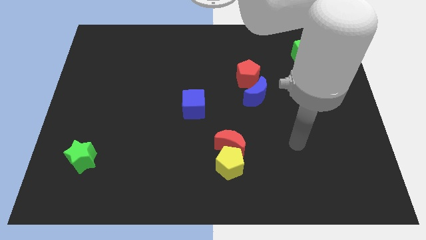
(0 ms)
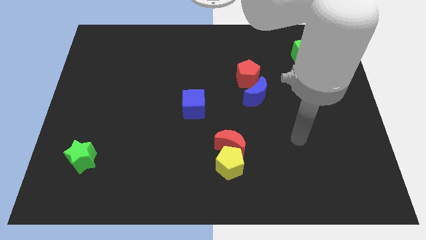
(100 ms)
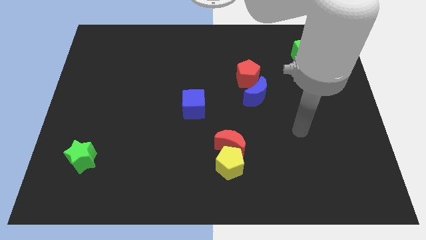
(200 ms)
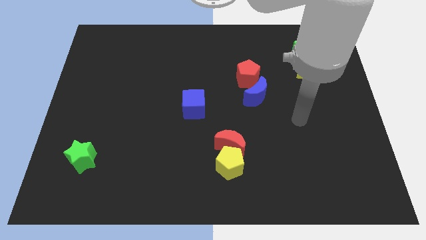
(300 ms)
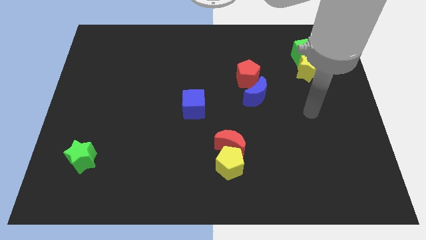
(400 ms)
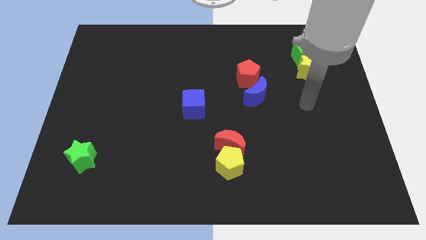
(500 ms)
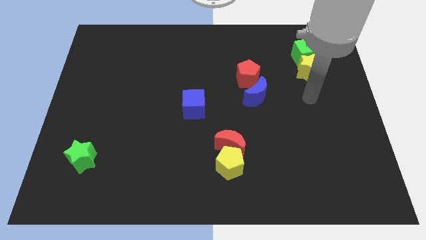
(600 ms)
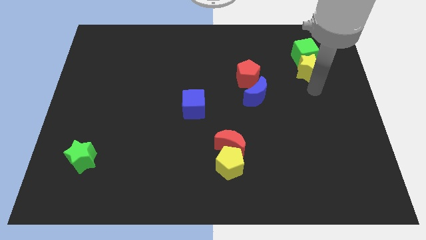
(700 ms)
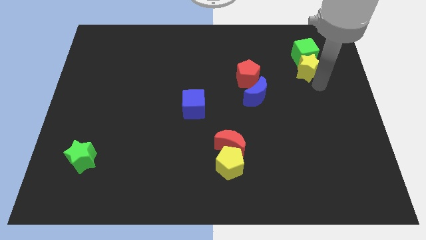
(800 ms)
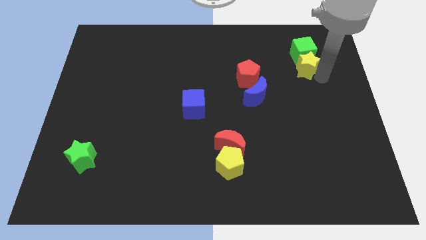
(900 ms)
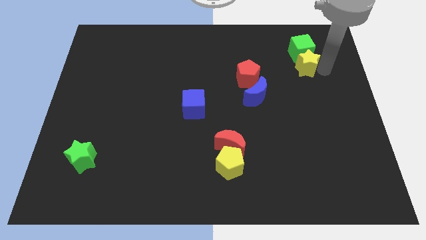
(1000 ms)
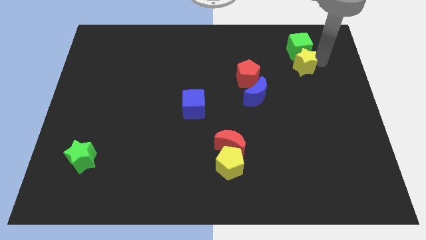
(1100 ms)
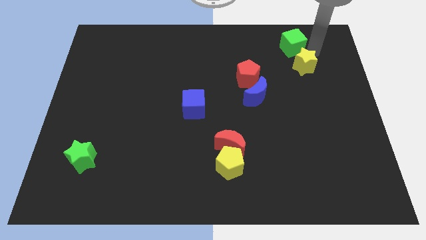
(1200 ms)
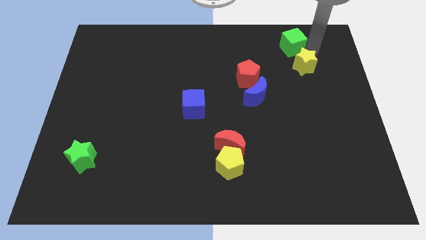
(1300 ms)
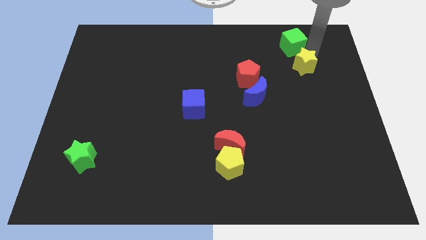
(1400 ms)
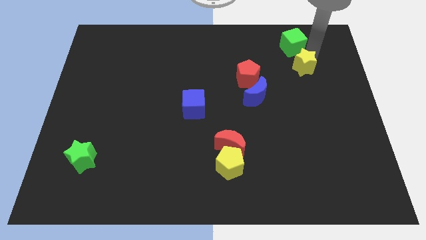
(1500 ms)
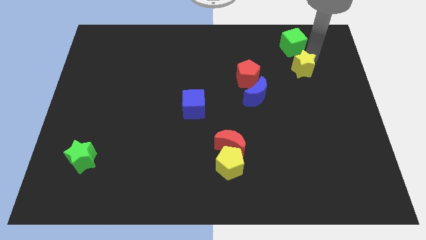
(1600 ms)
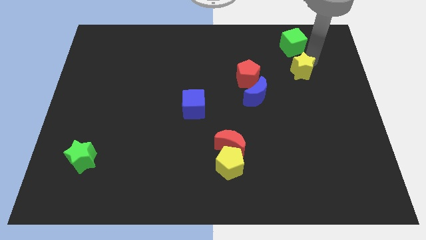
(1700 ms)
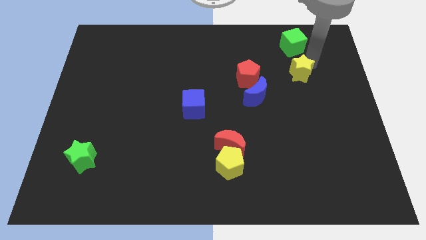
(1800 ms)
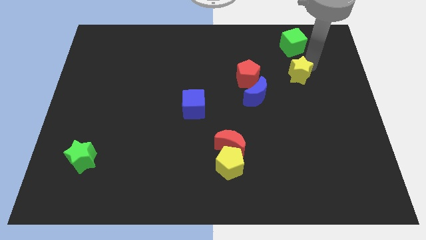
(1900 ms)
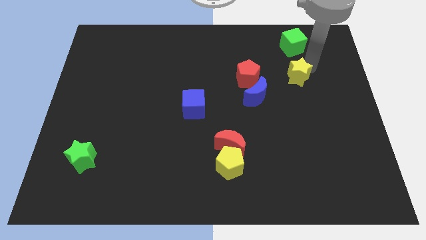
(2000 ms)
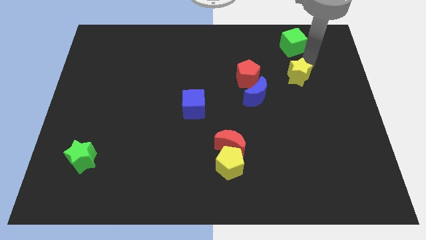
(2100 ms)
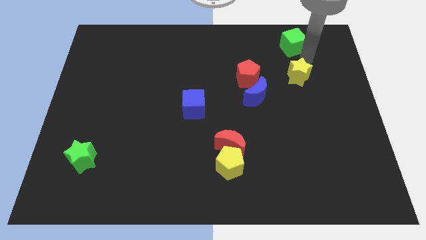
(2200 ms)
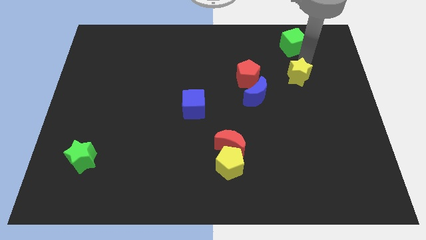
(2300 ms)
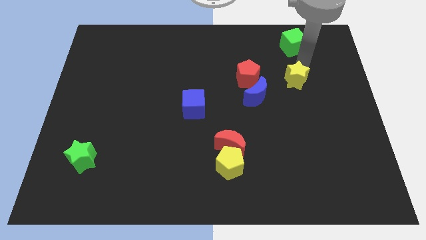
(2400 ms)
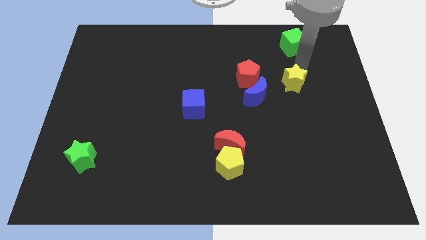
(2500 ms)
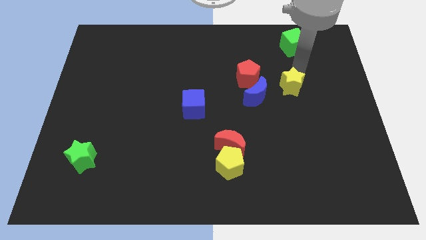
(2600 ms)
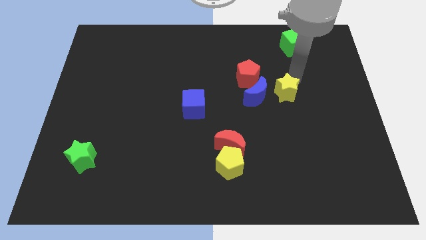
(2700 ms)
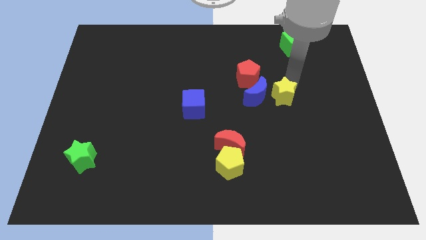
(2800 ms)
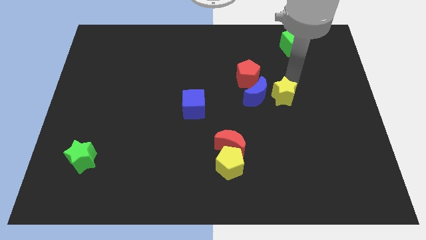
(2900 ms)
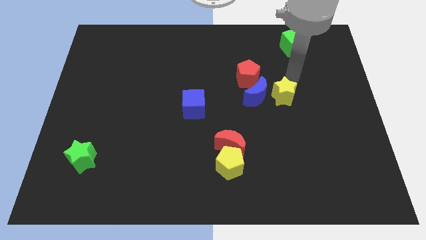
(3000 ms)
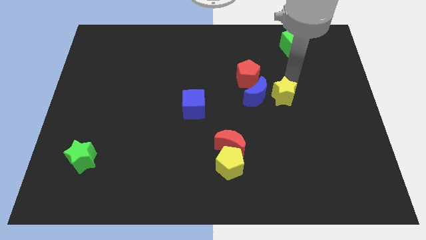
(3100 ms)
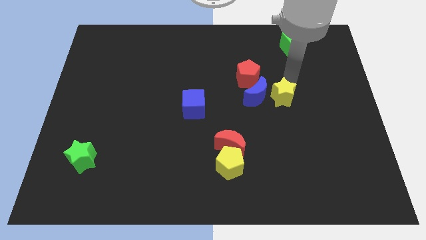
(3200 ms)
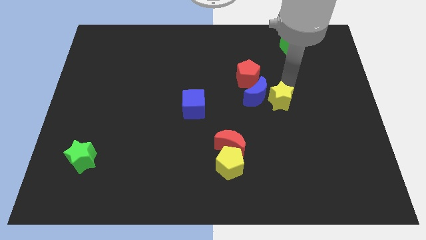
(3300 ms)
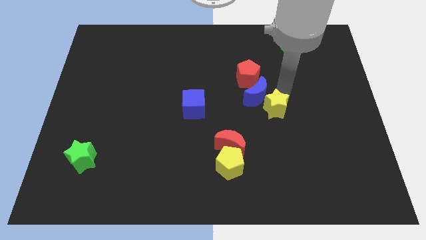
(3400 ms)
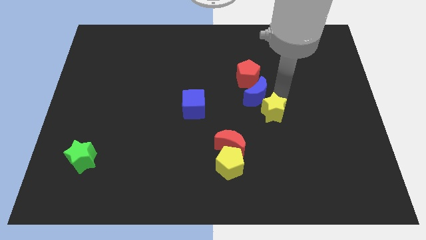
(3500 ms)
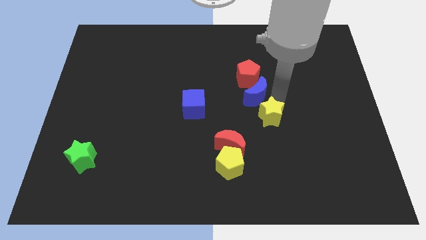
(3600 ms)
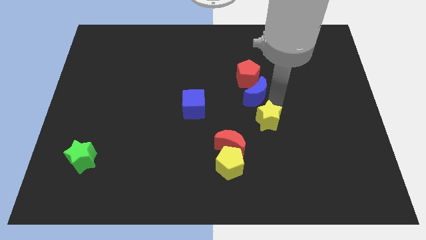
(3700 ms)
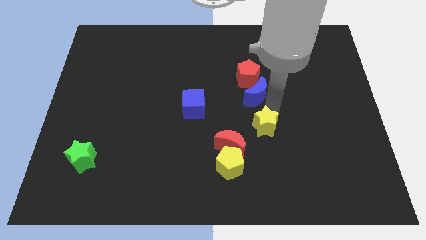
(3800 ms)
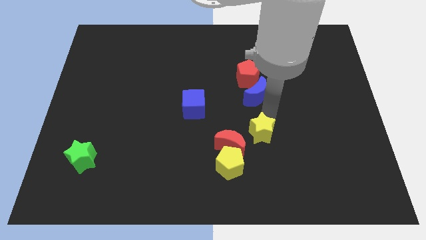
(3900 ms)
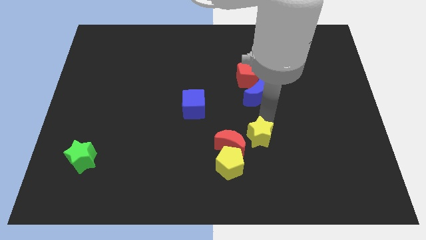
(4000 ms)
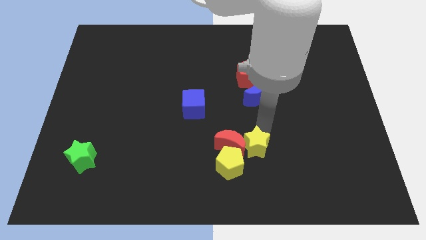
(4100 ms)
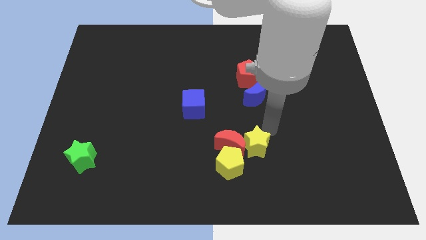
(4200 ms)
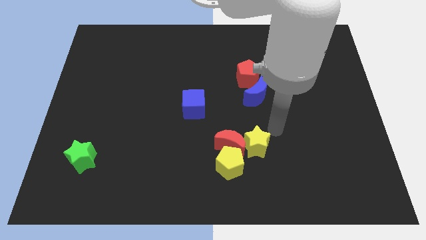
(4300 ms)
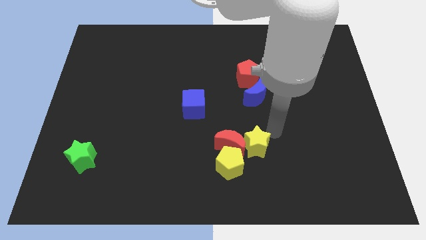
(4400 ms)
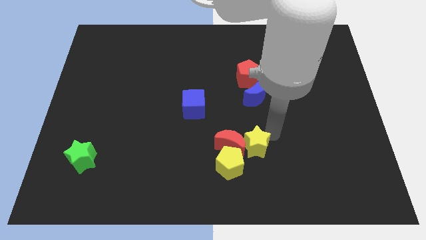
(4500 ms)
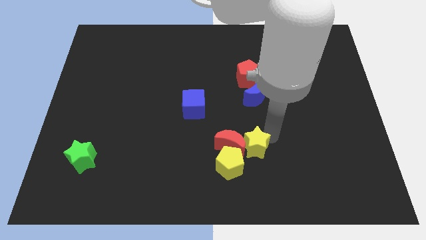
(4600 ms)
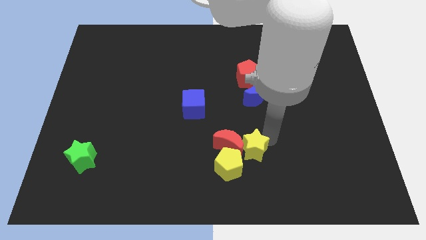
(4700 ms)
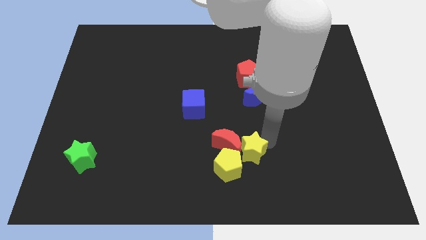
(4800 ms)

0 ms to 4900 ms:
move the yellow star close to the yellow pentagon

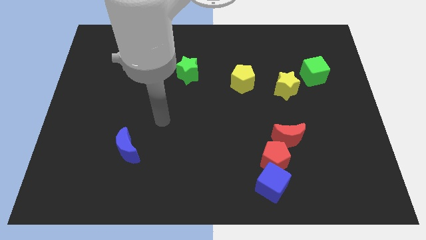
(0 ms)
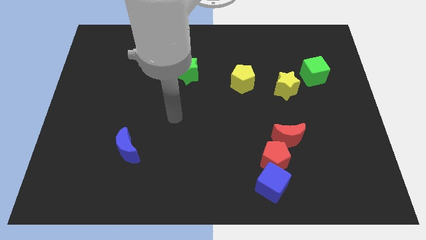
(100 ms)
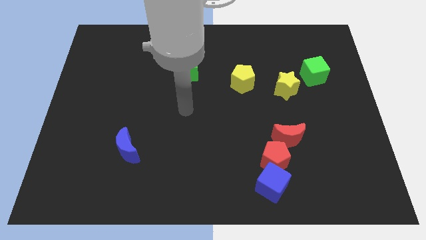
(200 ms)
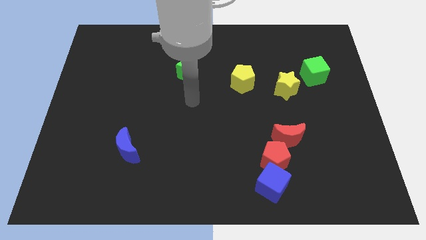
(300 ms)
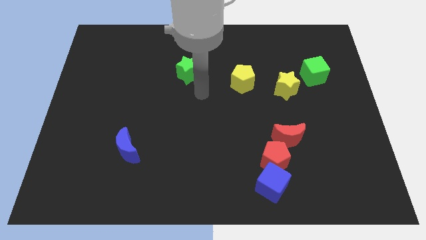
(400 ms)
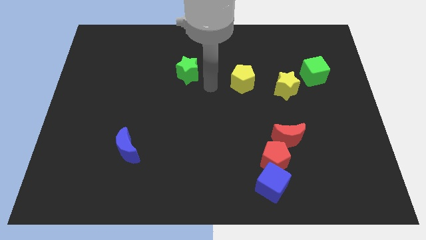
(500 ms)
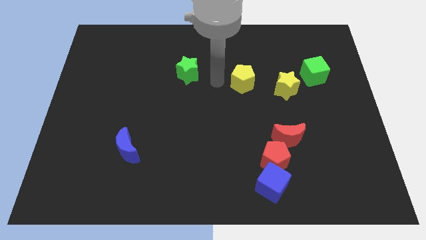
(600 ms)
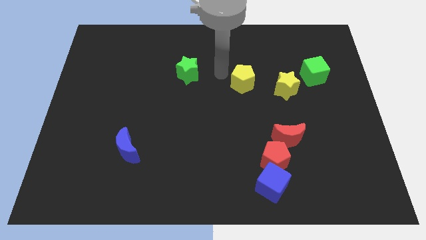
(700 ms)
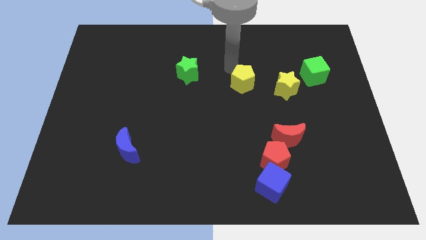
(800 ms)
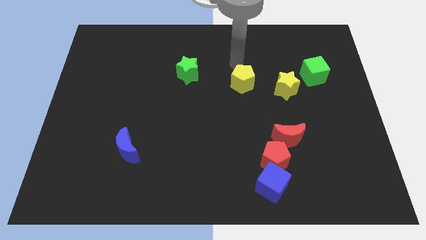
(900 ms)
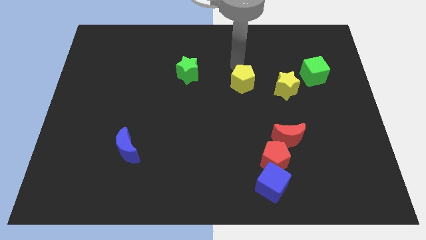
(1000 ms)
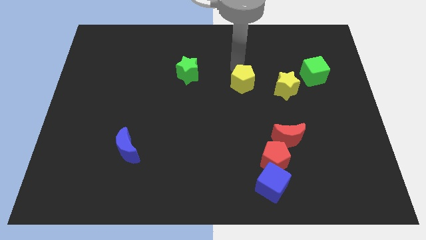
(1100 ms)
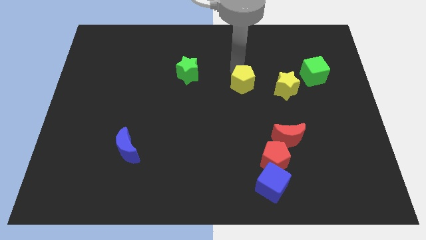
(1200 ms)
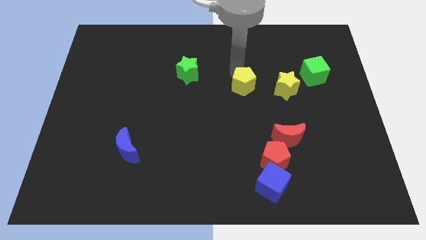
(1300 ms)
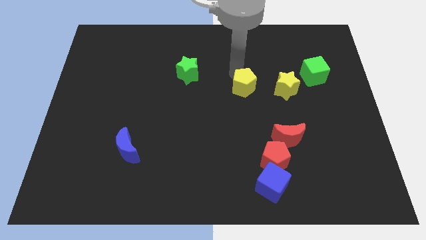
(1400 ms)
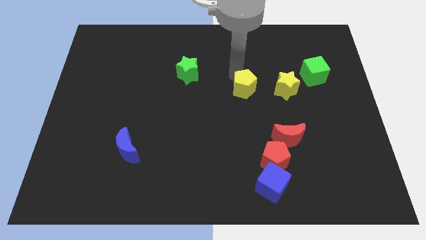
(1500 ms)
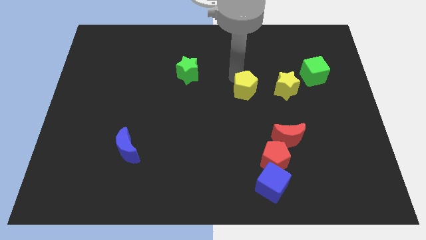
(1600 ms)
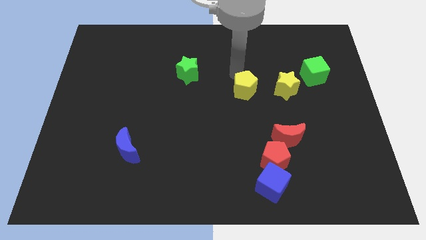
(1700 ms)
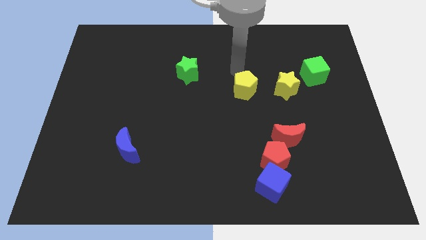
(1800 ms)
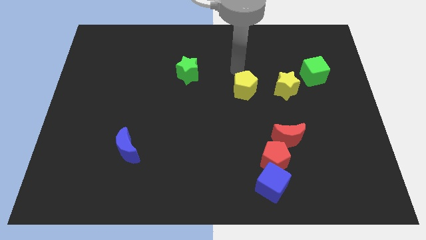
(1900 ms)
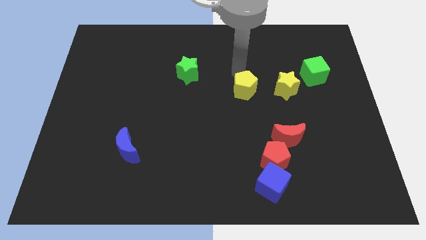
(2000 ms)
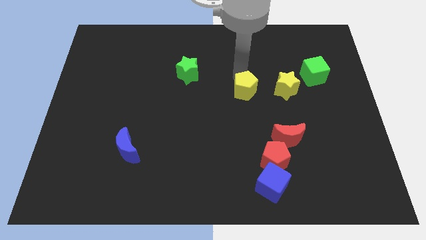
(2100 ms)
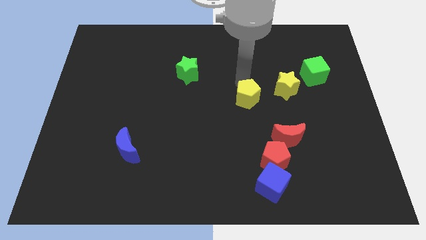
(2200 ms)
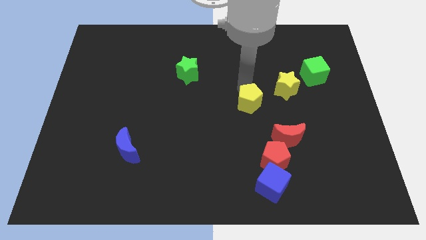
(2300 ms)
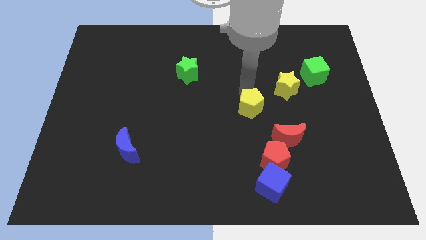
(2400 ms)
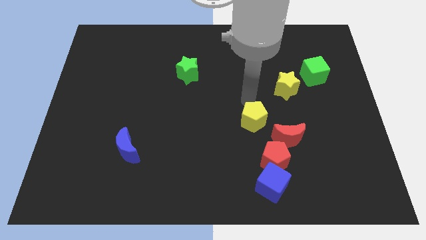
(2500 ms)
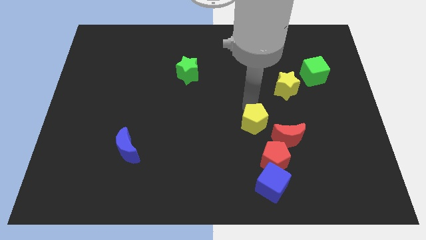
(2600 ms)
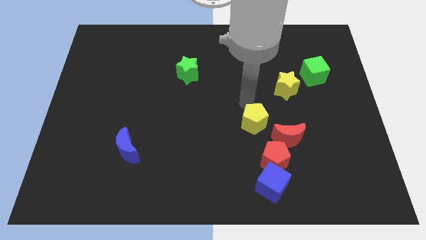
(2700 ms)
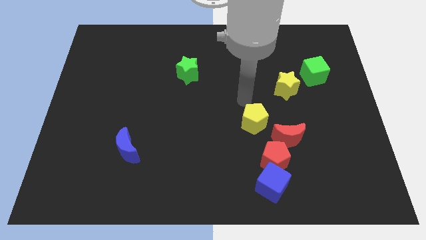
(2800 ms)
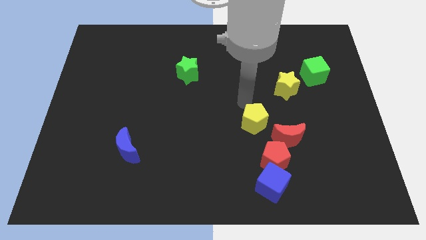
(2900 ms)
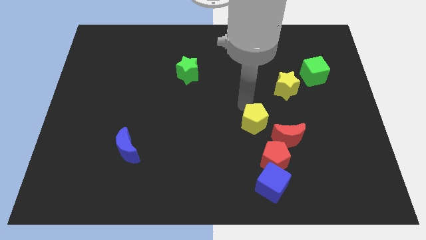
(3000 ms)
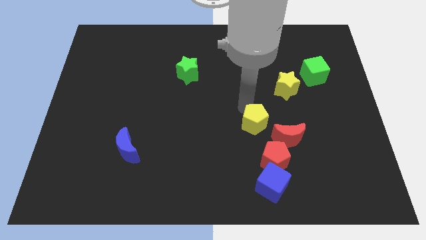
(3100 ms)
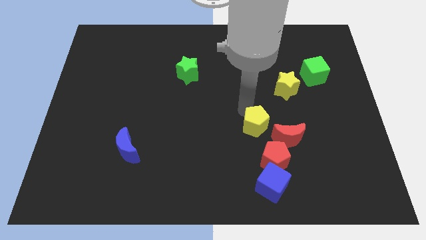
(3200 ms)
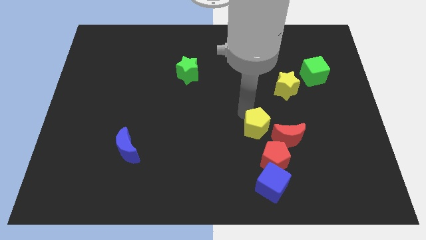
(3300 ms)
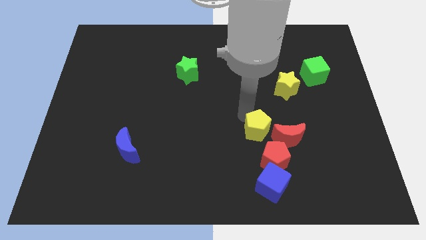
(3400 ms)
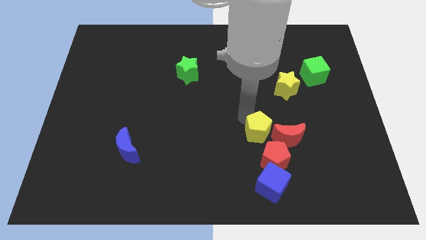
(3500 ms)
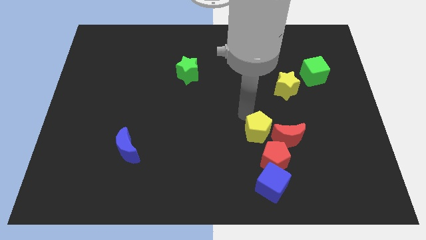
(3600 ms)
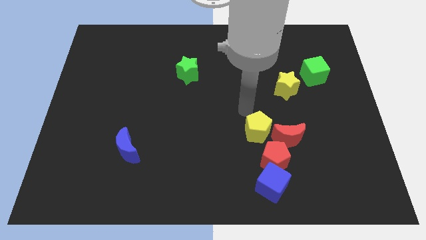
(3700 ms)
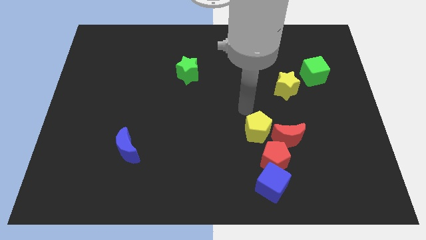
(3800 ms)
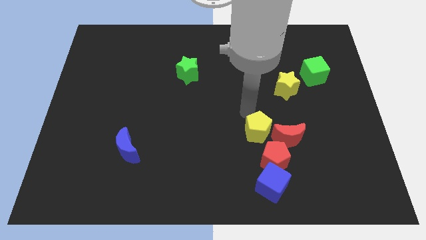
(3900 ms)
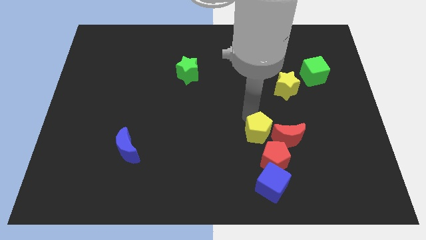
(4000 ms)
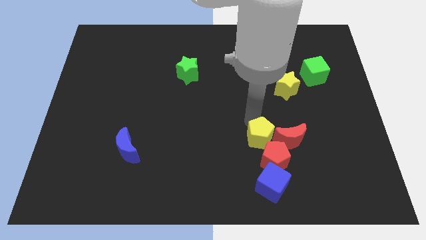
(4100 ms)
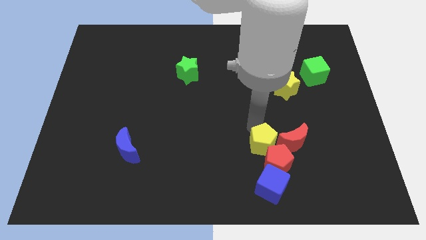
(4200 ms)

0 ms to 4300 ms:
put the yellow pentagon towards the red pentagon
